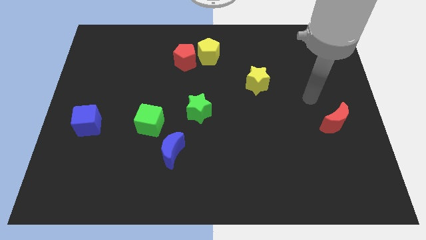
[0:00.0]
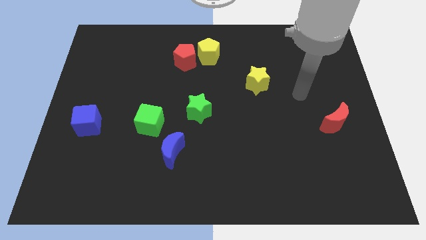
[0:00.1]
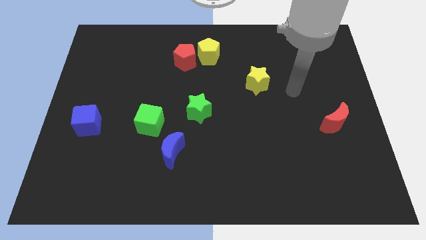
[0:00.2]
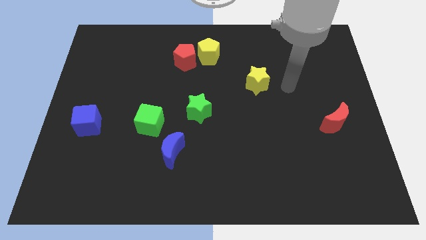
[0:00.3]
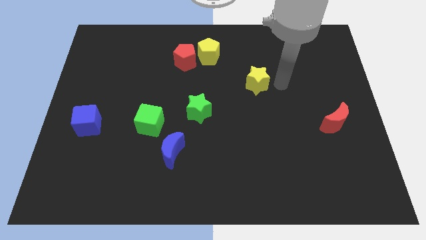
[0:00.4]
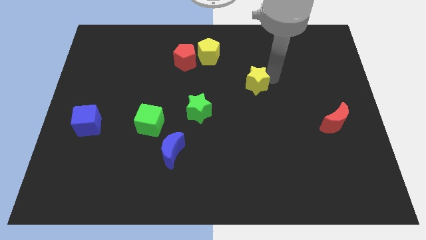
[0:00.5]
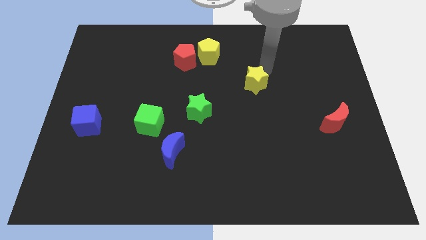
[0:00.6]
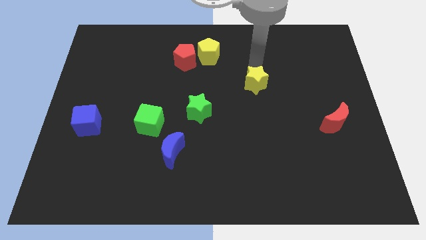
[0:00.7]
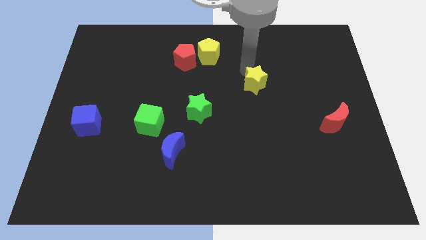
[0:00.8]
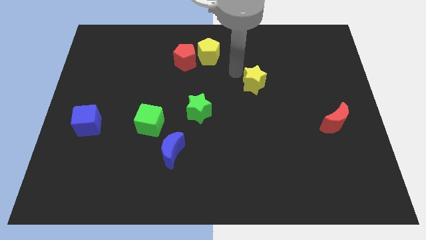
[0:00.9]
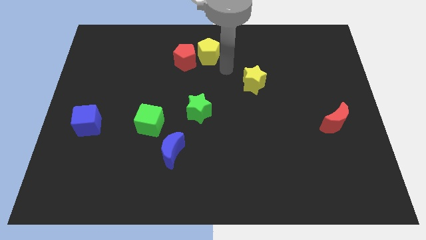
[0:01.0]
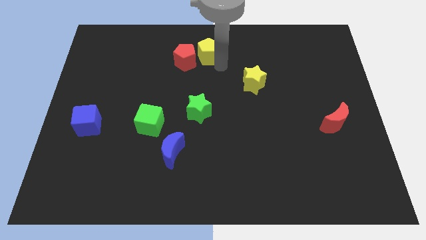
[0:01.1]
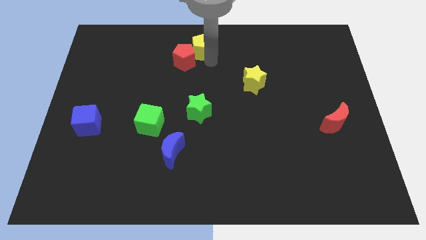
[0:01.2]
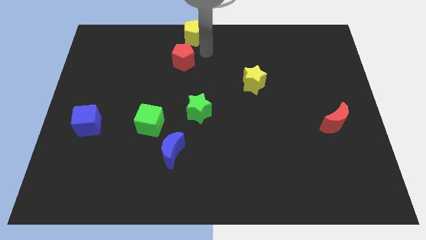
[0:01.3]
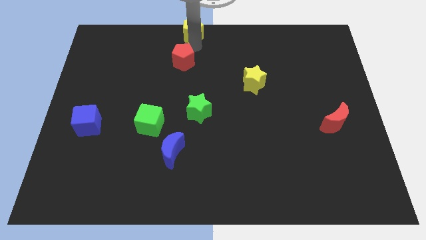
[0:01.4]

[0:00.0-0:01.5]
move the red pentagon away from the yellow pentagon

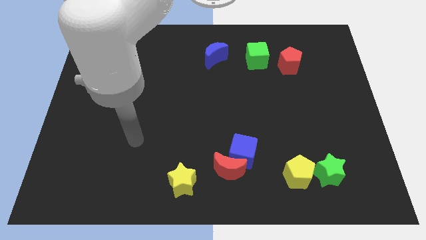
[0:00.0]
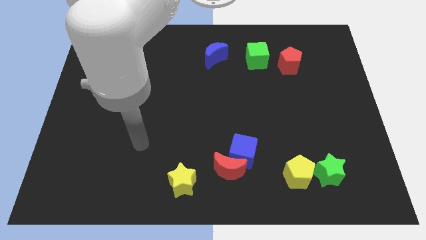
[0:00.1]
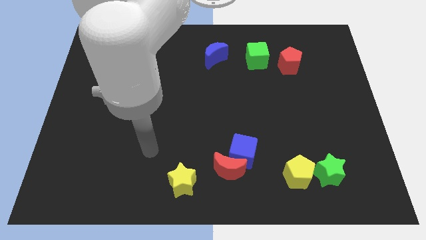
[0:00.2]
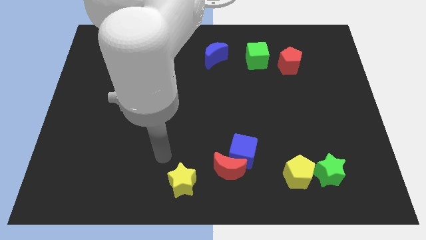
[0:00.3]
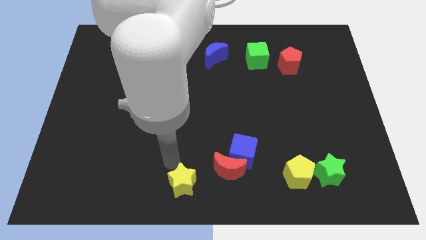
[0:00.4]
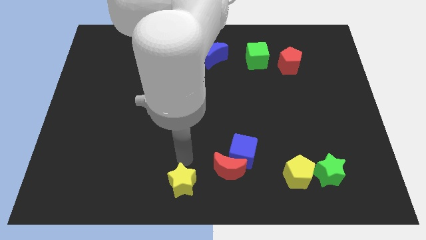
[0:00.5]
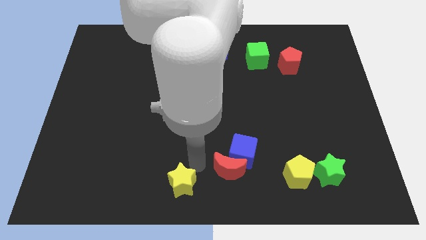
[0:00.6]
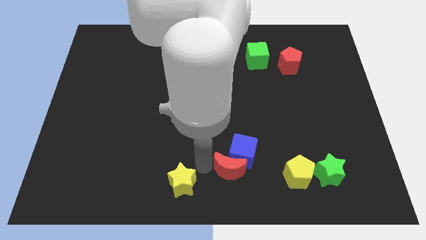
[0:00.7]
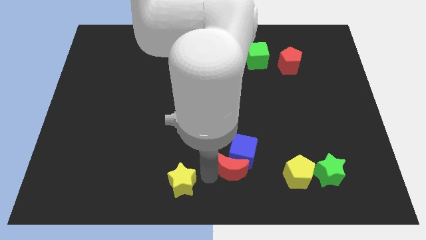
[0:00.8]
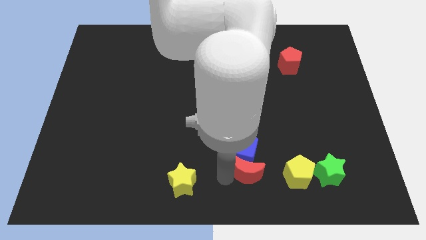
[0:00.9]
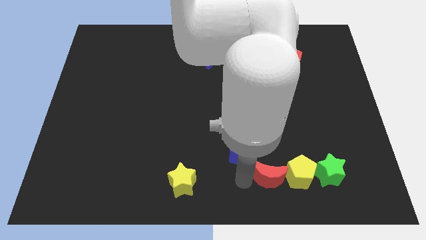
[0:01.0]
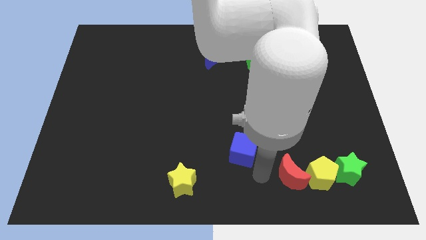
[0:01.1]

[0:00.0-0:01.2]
move the blue cube away from the red moon

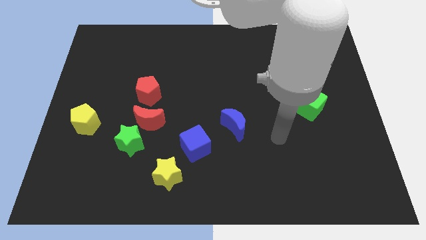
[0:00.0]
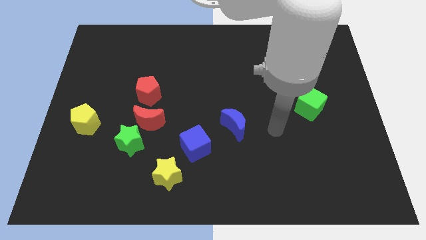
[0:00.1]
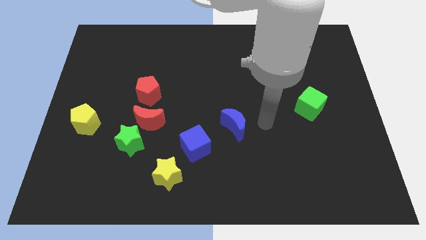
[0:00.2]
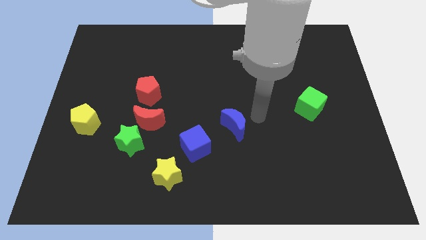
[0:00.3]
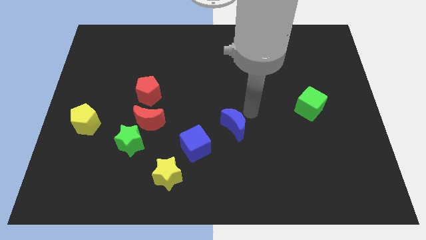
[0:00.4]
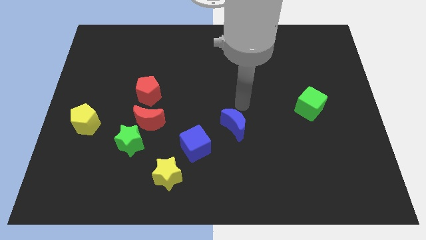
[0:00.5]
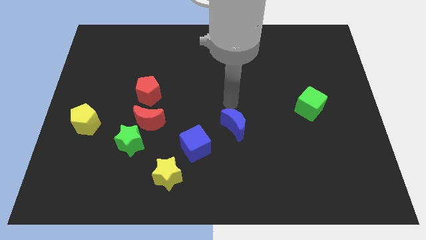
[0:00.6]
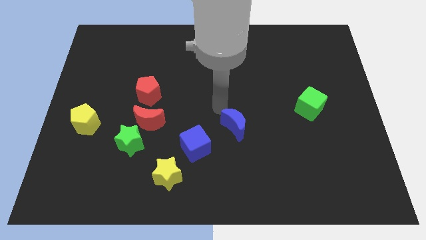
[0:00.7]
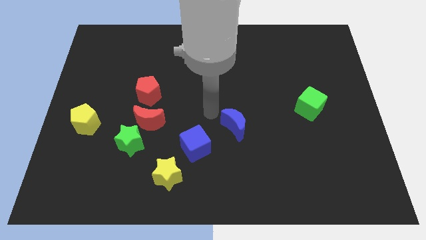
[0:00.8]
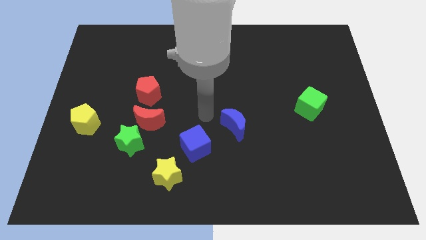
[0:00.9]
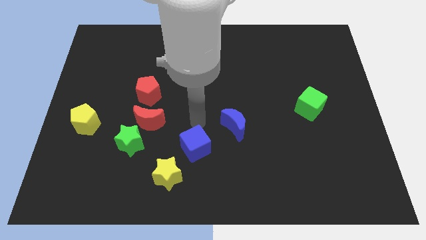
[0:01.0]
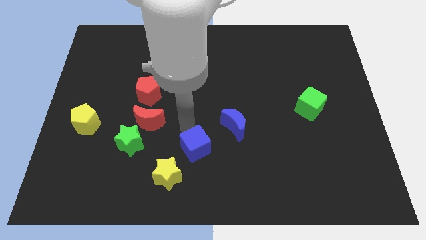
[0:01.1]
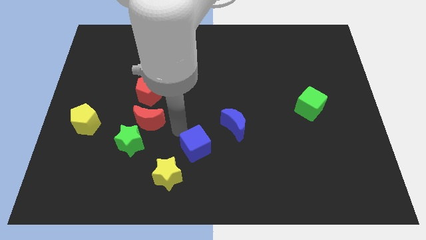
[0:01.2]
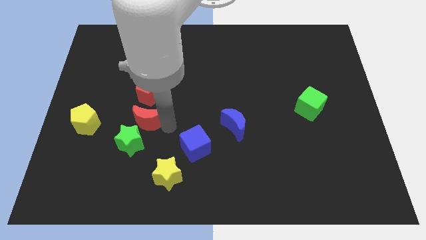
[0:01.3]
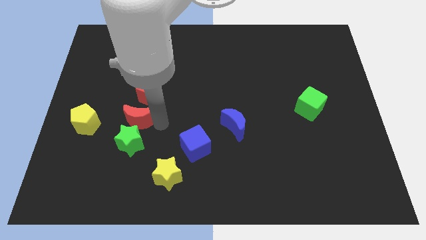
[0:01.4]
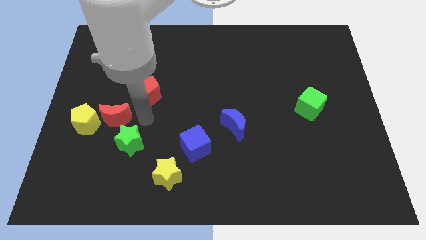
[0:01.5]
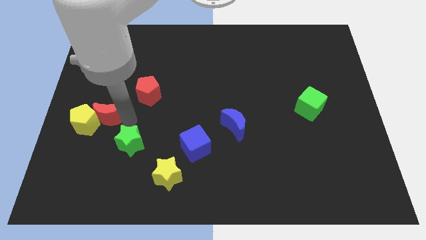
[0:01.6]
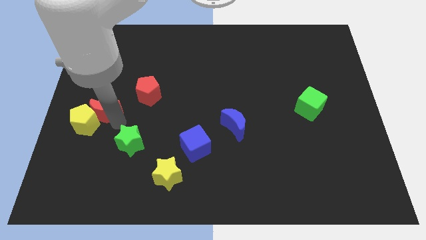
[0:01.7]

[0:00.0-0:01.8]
pull the green star apart from the red moon

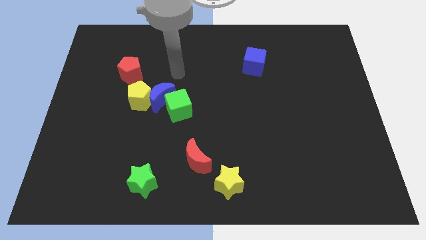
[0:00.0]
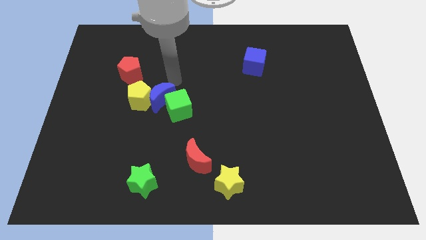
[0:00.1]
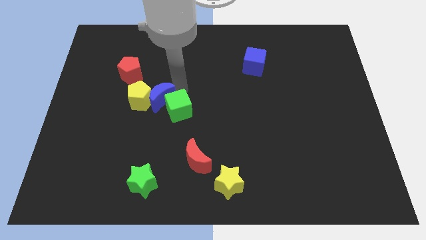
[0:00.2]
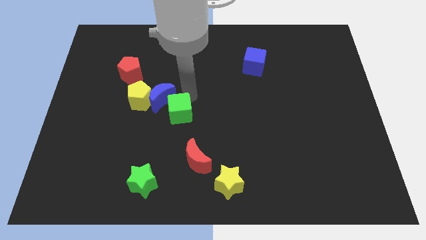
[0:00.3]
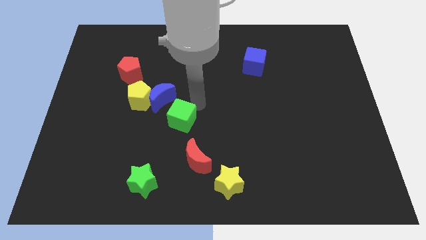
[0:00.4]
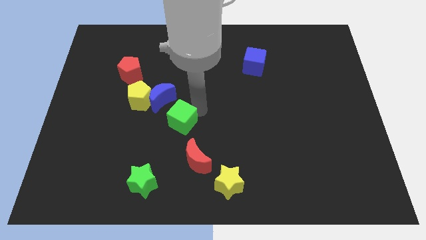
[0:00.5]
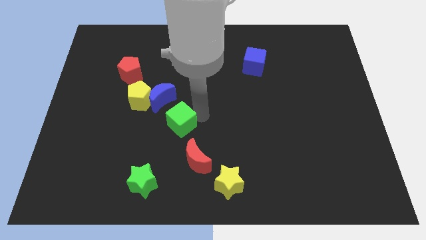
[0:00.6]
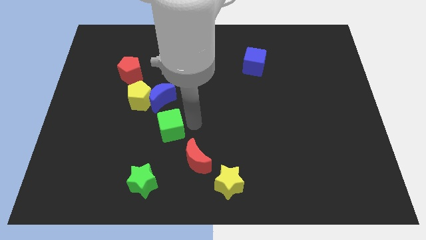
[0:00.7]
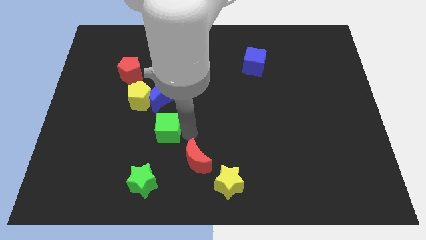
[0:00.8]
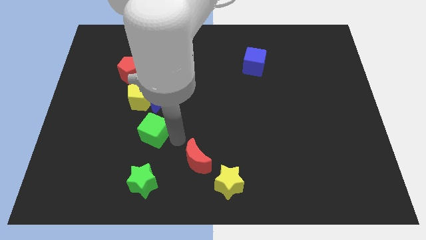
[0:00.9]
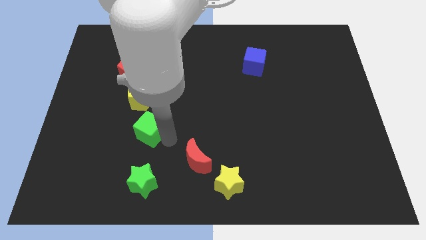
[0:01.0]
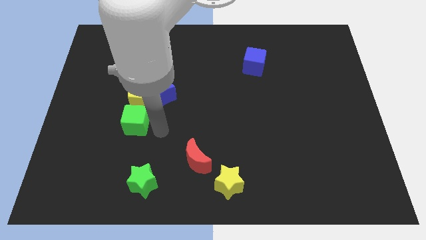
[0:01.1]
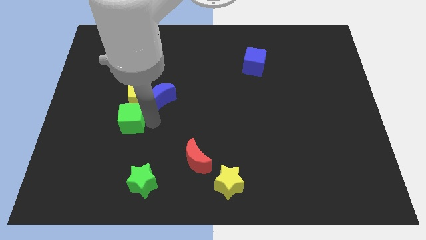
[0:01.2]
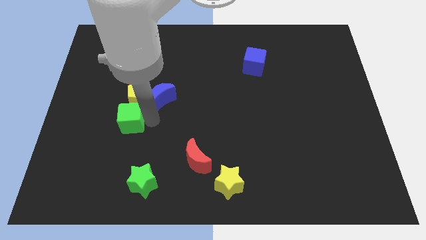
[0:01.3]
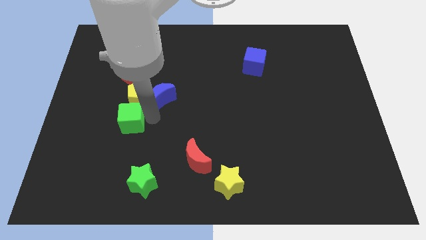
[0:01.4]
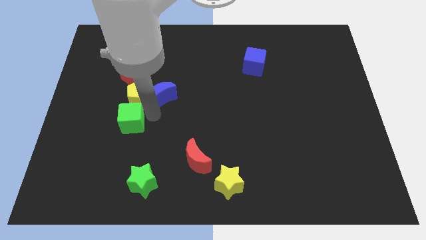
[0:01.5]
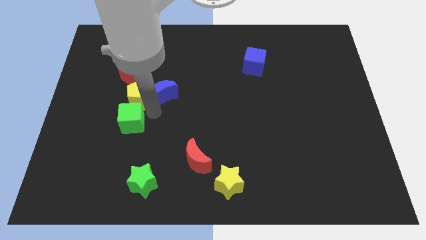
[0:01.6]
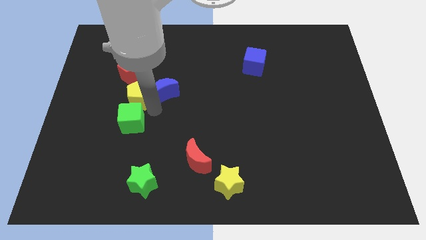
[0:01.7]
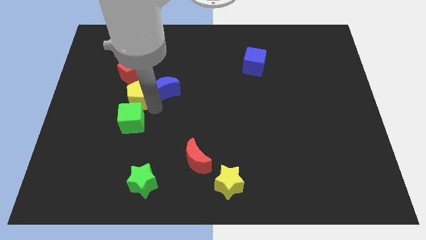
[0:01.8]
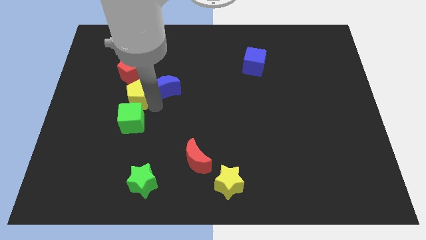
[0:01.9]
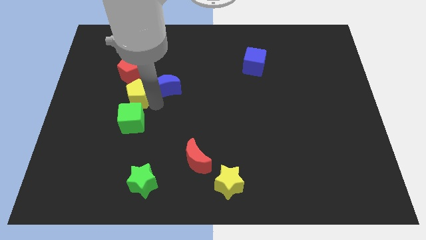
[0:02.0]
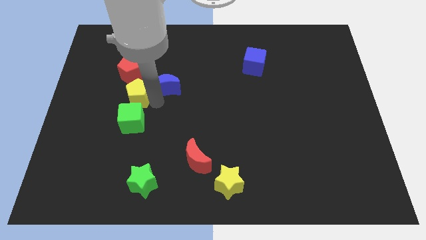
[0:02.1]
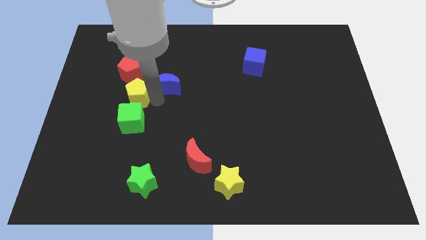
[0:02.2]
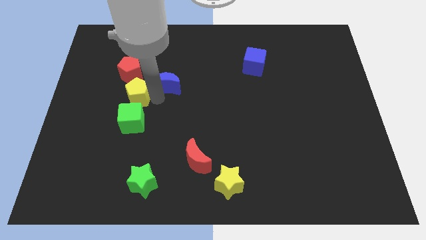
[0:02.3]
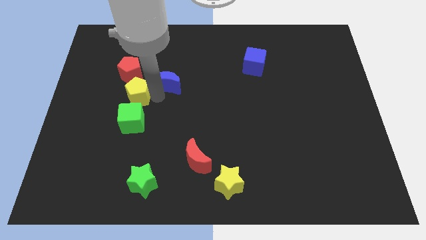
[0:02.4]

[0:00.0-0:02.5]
separate the blue moon from the yellow pentagon and green cube

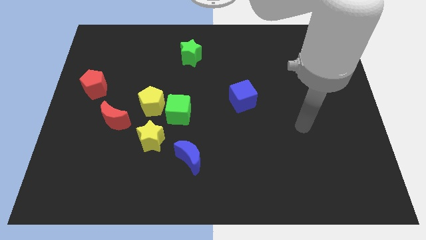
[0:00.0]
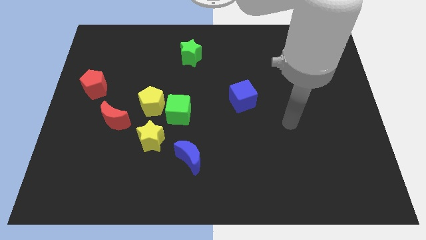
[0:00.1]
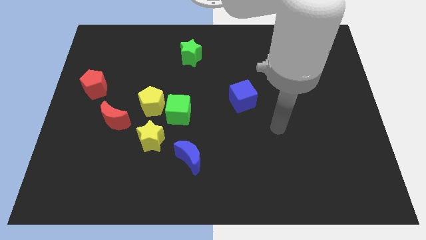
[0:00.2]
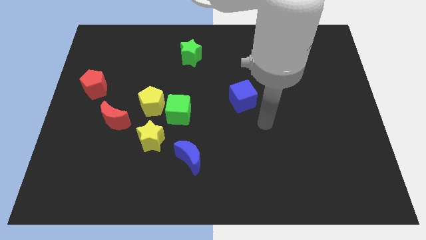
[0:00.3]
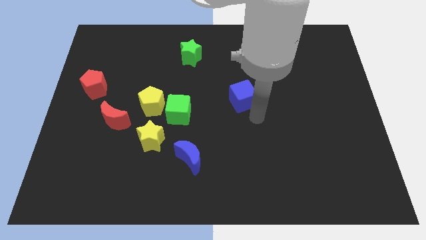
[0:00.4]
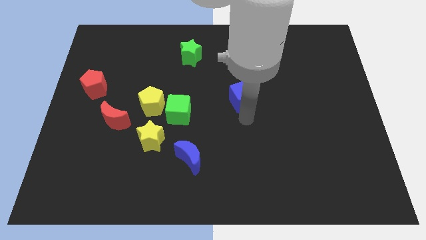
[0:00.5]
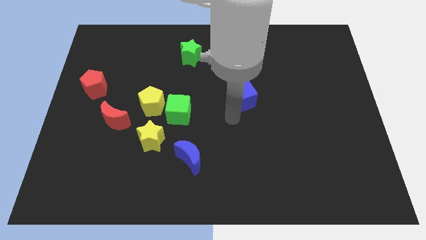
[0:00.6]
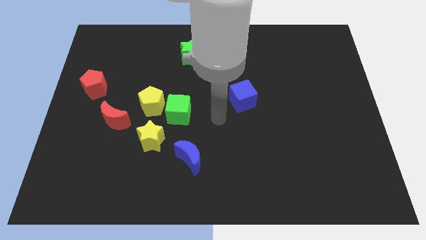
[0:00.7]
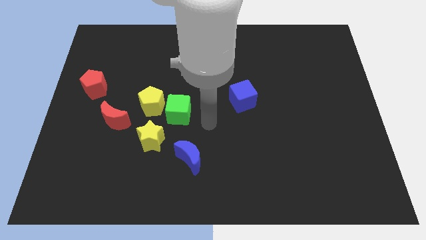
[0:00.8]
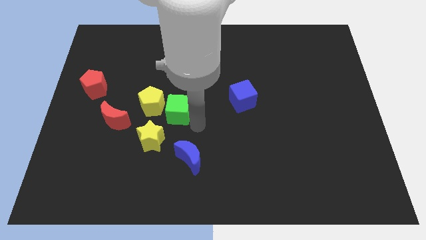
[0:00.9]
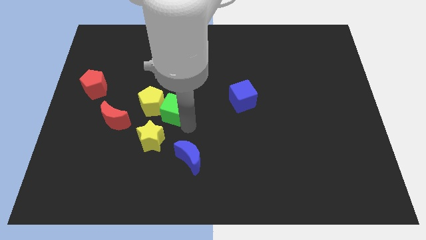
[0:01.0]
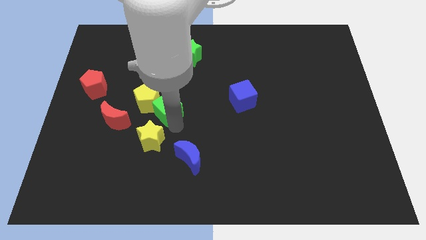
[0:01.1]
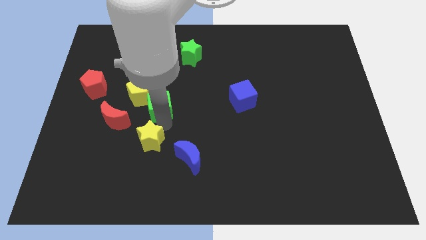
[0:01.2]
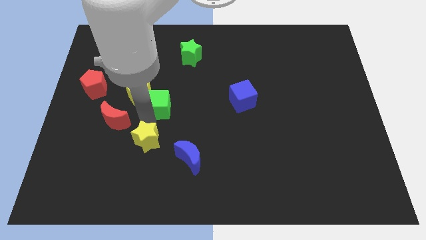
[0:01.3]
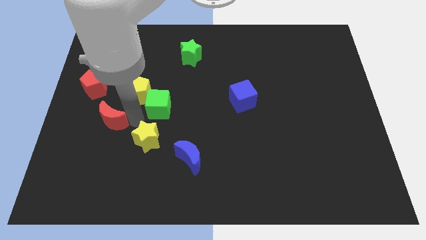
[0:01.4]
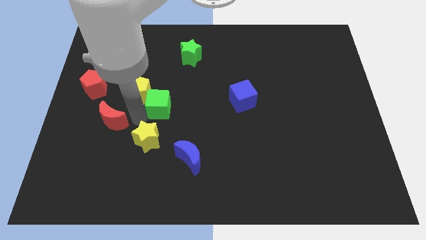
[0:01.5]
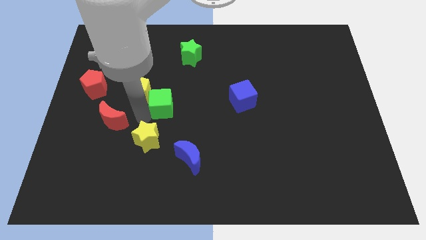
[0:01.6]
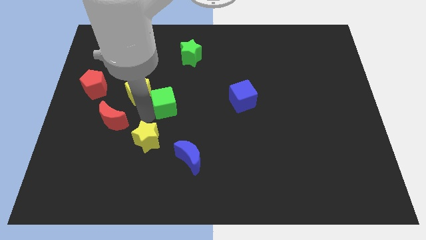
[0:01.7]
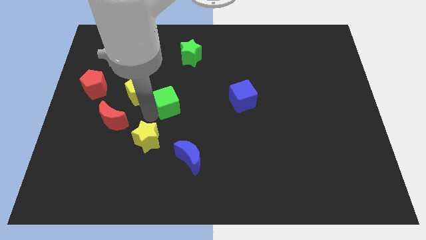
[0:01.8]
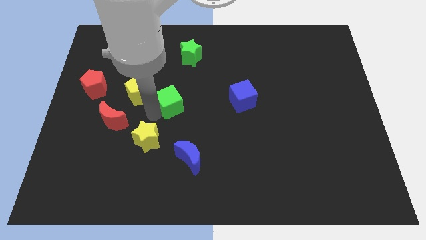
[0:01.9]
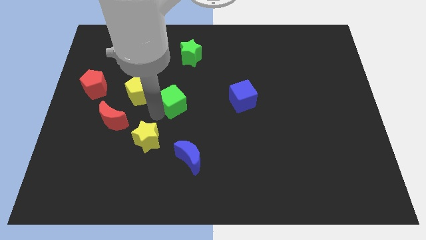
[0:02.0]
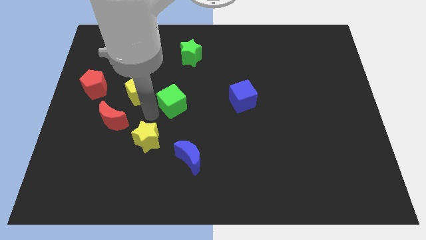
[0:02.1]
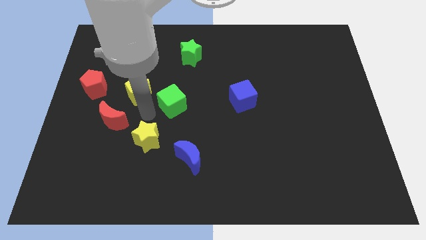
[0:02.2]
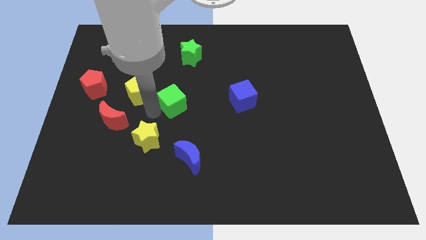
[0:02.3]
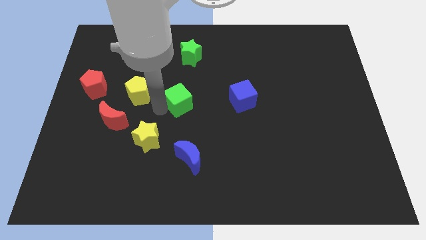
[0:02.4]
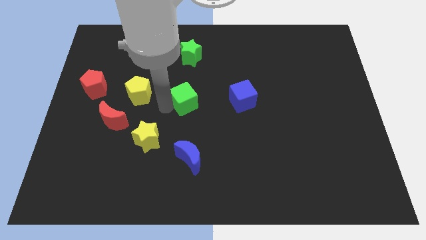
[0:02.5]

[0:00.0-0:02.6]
move the green cube away from the yellow pentagon and yellow star
